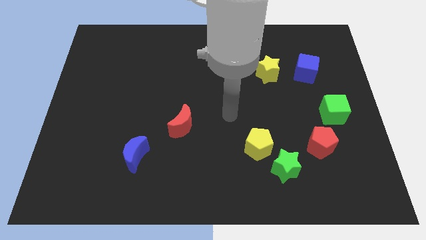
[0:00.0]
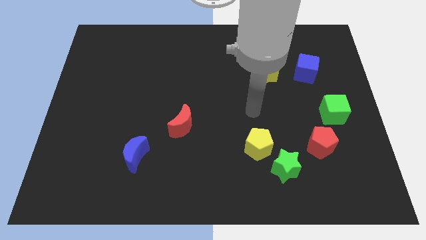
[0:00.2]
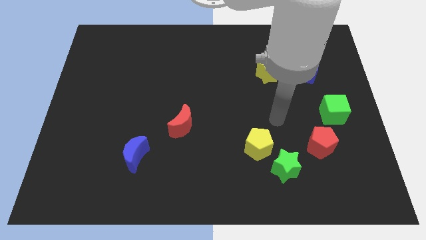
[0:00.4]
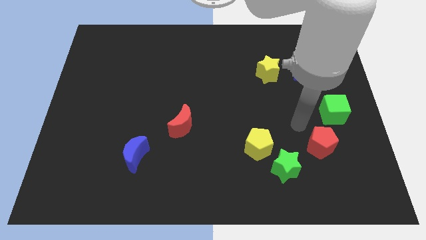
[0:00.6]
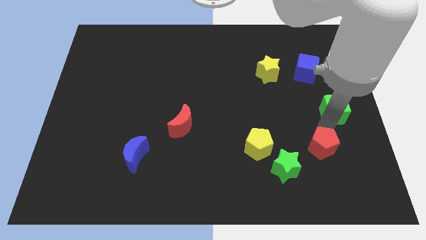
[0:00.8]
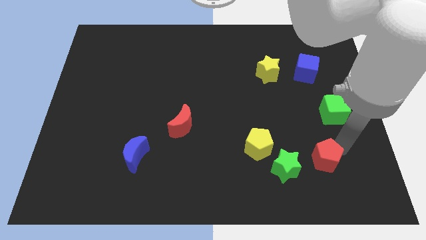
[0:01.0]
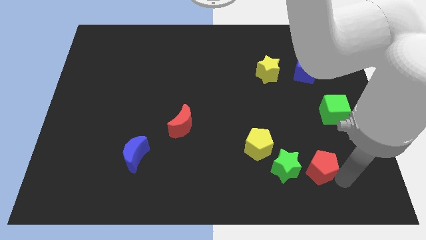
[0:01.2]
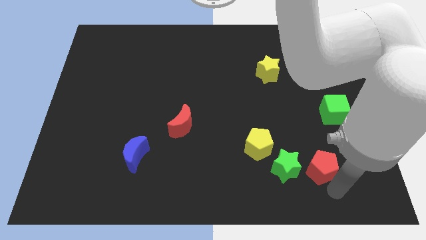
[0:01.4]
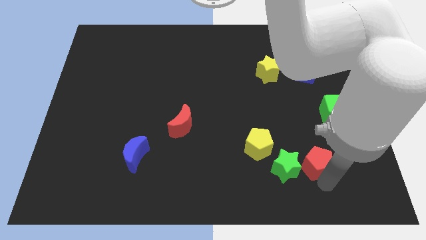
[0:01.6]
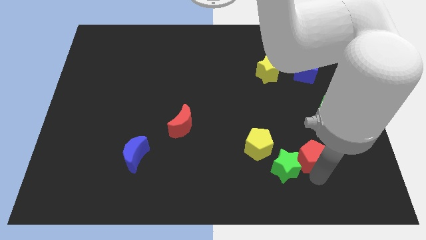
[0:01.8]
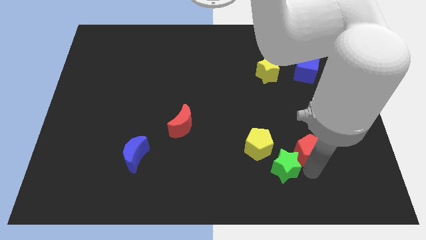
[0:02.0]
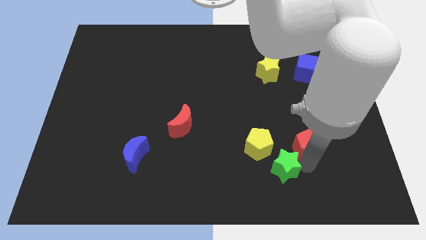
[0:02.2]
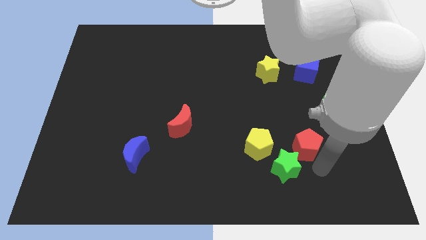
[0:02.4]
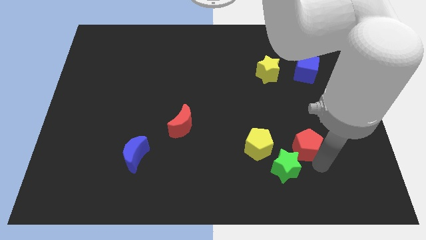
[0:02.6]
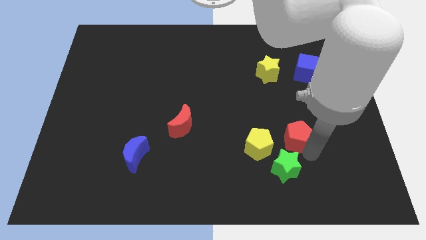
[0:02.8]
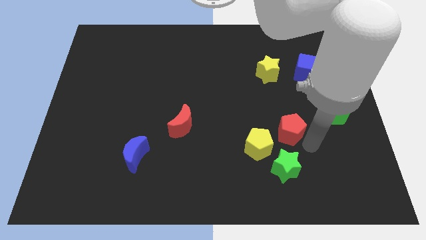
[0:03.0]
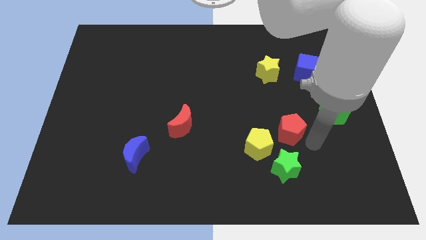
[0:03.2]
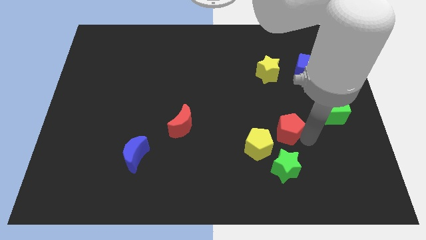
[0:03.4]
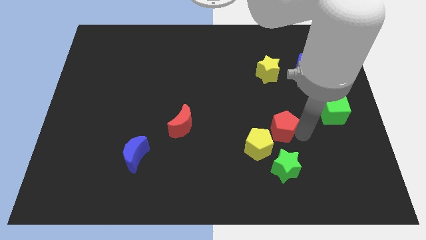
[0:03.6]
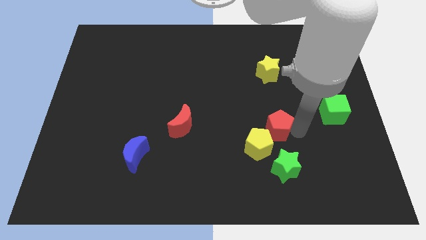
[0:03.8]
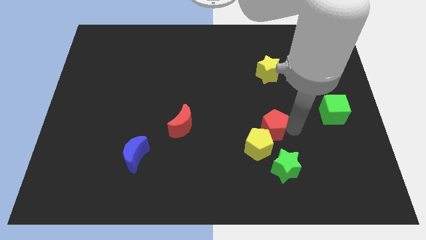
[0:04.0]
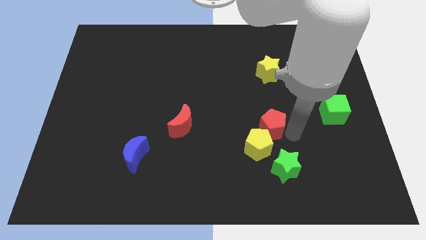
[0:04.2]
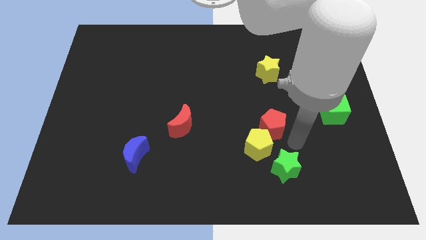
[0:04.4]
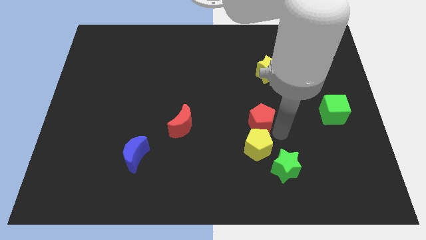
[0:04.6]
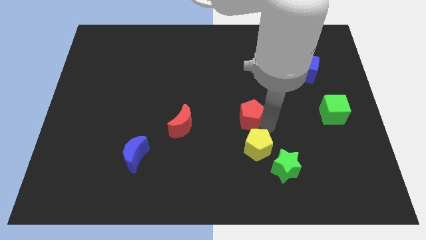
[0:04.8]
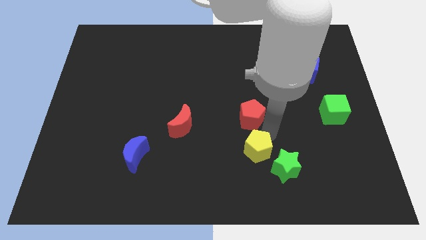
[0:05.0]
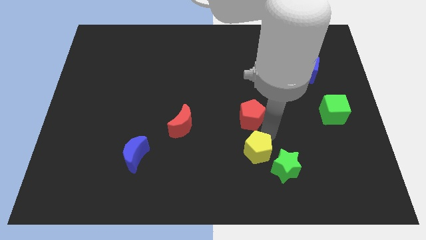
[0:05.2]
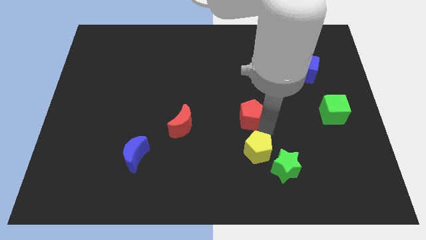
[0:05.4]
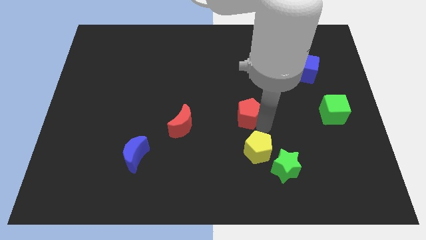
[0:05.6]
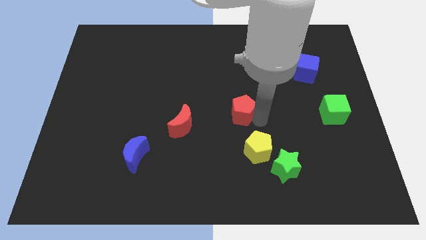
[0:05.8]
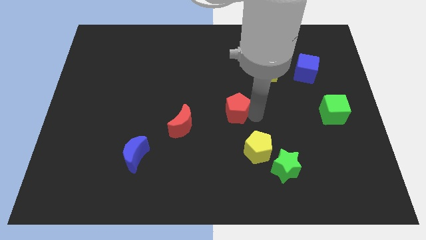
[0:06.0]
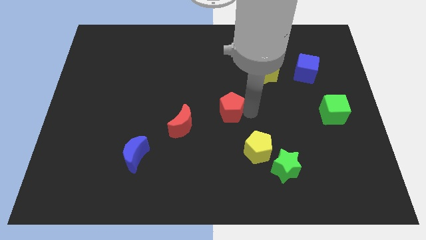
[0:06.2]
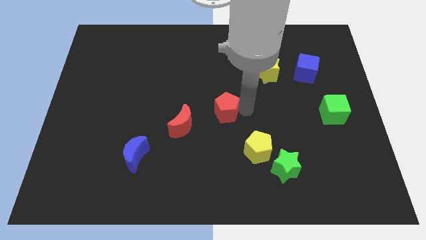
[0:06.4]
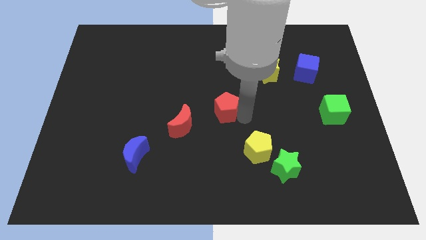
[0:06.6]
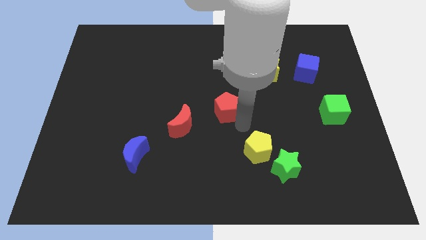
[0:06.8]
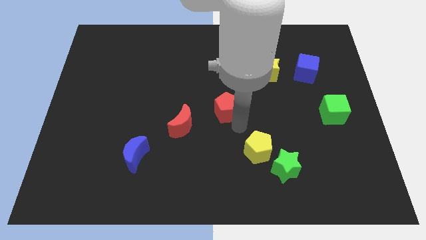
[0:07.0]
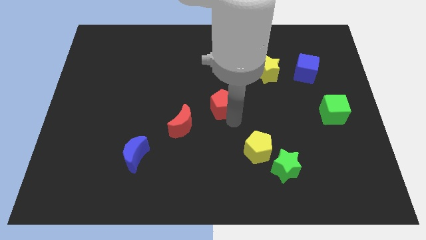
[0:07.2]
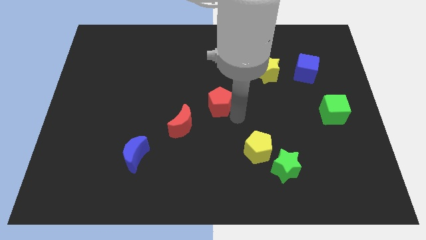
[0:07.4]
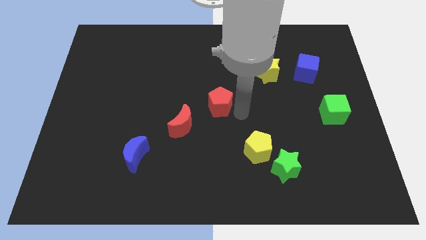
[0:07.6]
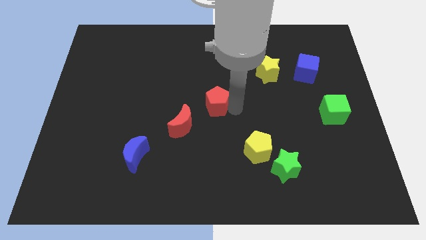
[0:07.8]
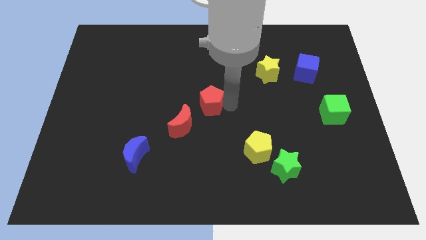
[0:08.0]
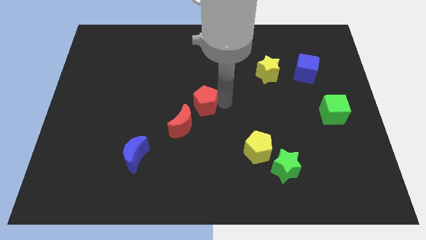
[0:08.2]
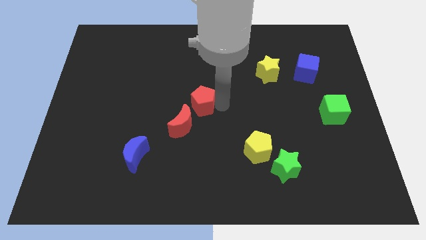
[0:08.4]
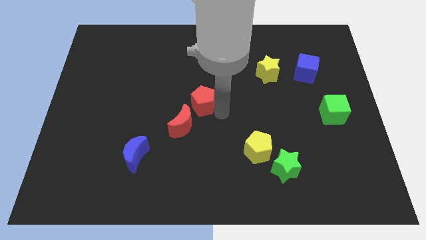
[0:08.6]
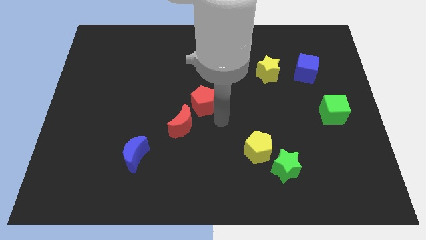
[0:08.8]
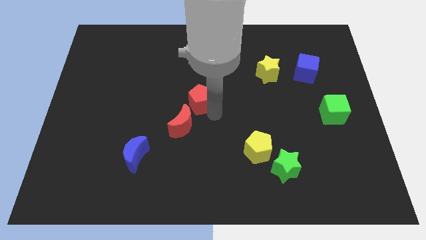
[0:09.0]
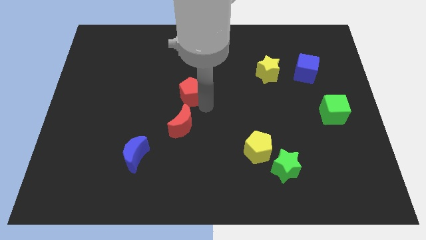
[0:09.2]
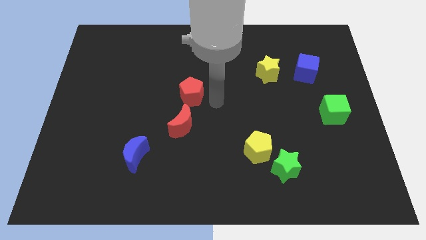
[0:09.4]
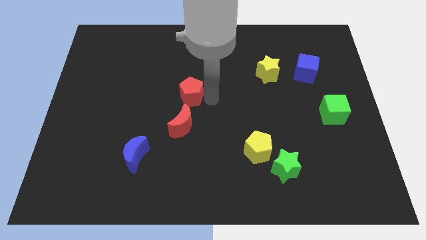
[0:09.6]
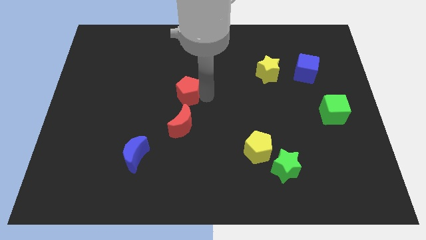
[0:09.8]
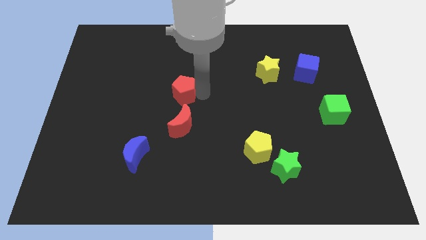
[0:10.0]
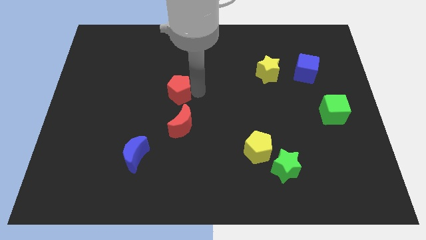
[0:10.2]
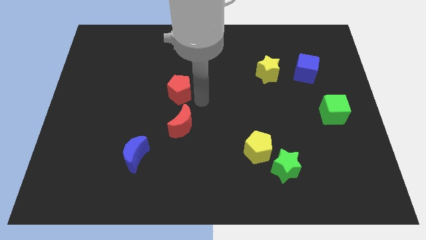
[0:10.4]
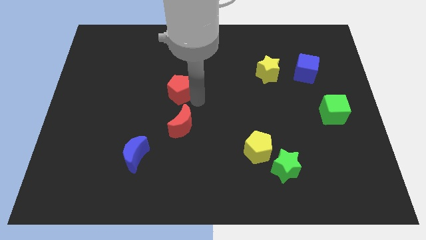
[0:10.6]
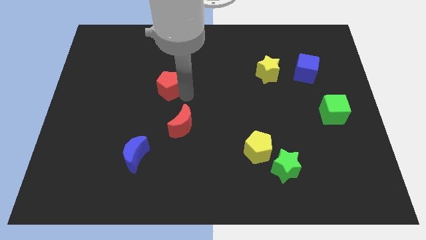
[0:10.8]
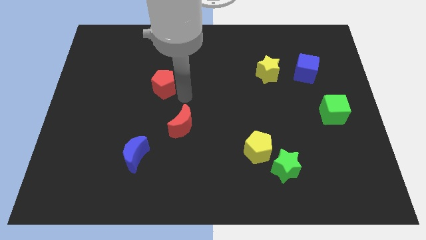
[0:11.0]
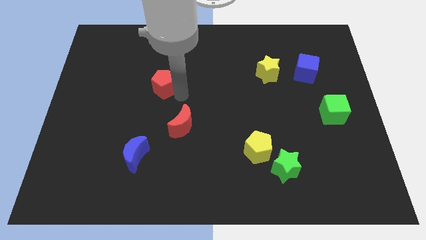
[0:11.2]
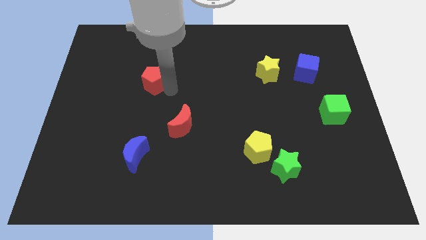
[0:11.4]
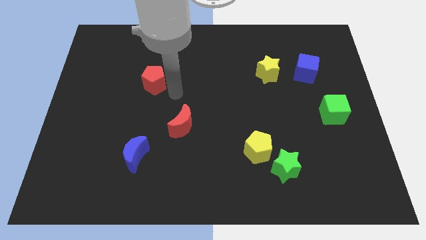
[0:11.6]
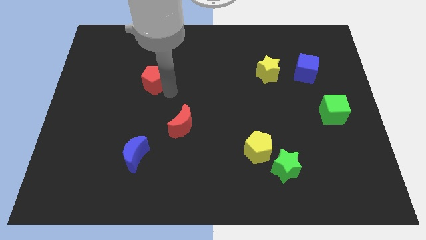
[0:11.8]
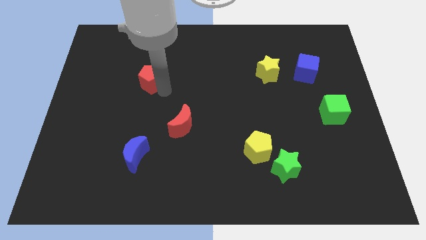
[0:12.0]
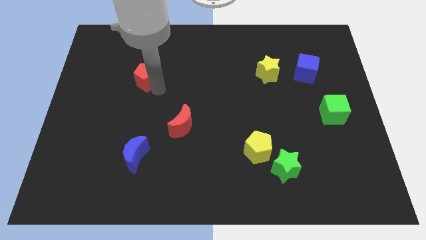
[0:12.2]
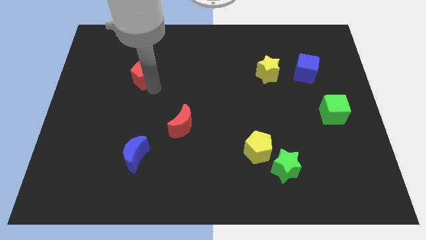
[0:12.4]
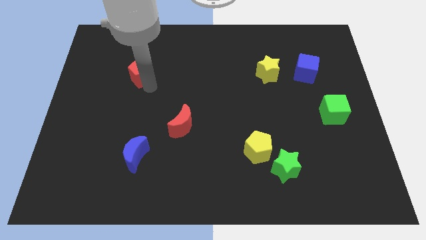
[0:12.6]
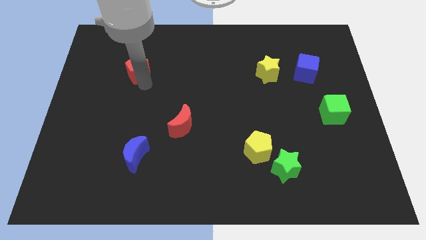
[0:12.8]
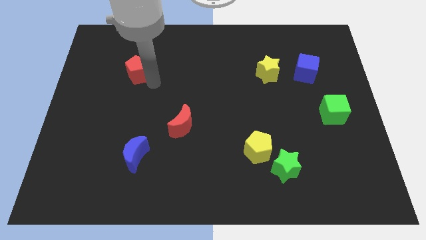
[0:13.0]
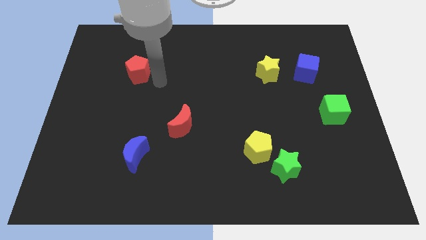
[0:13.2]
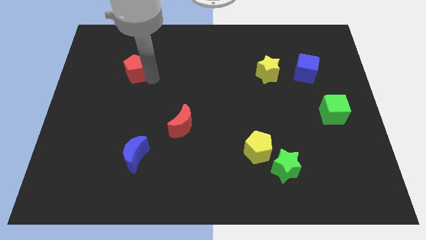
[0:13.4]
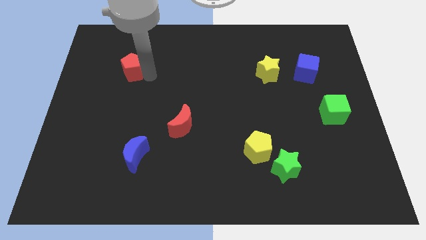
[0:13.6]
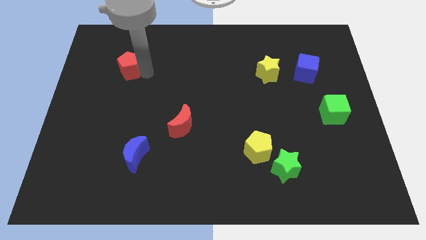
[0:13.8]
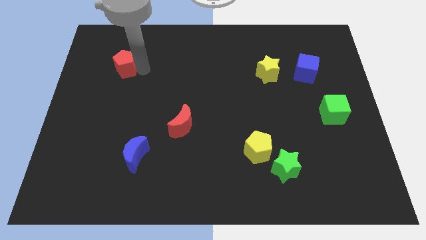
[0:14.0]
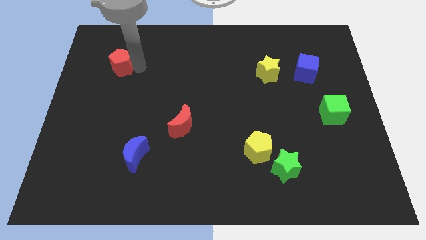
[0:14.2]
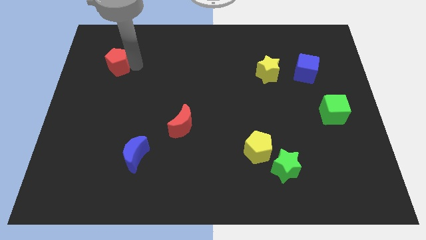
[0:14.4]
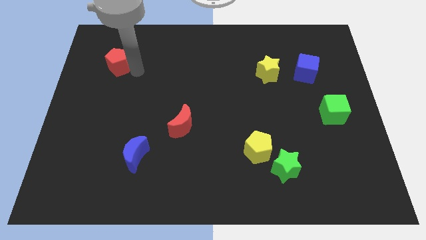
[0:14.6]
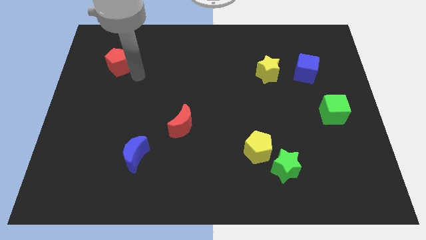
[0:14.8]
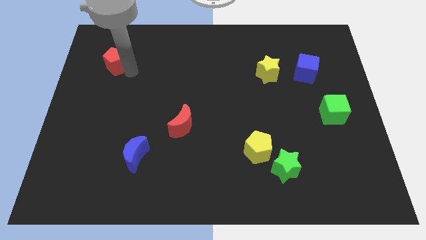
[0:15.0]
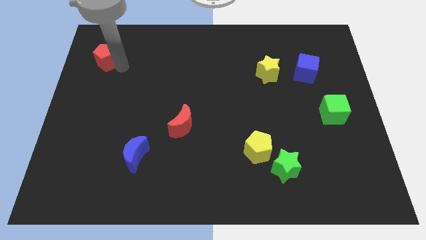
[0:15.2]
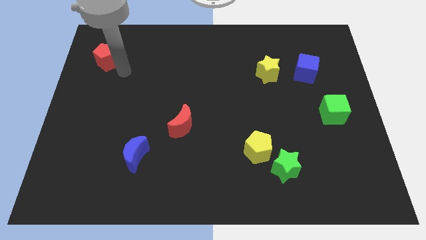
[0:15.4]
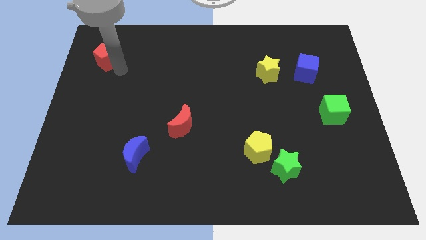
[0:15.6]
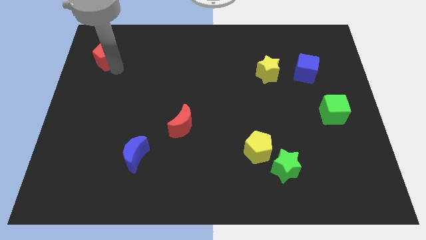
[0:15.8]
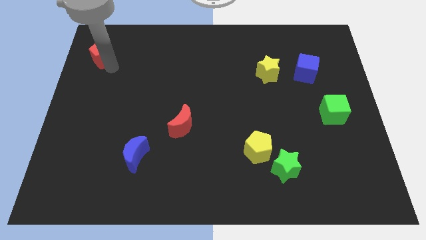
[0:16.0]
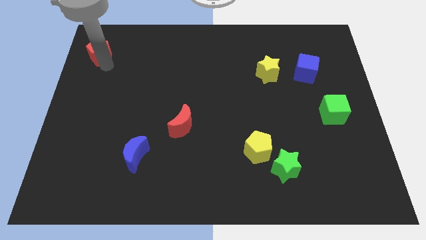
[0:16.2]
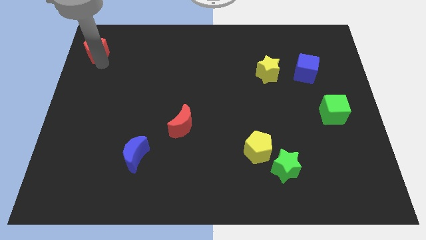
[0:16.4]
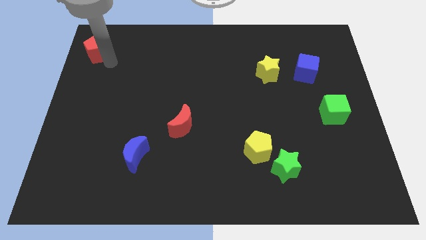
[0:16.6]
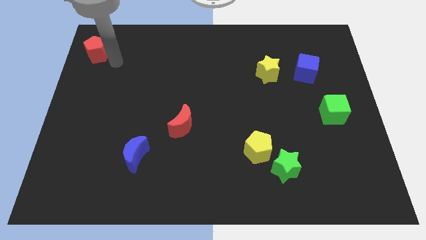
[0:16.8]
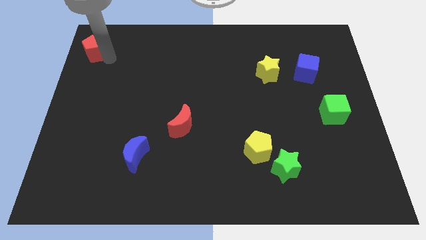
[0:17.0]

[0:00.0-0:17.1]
slide the red pentagon to the top left corner
